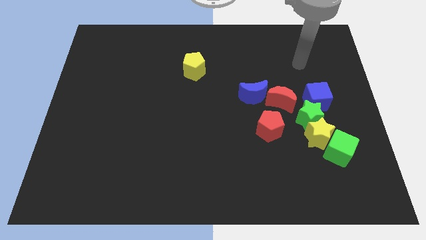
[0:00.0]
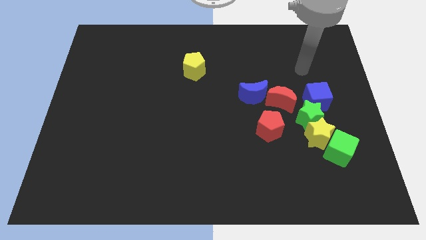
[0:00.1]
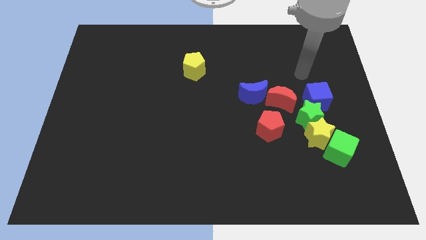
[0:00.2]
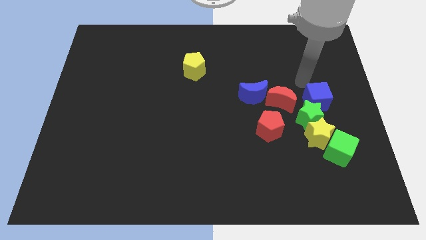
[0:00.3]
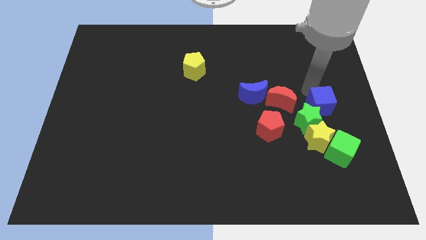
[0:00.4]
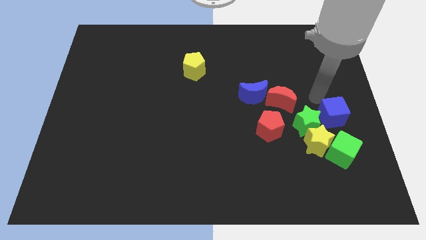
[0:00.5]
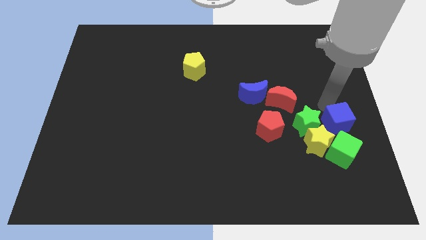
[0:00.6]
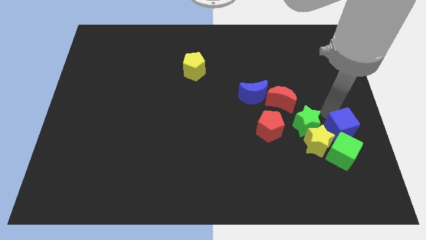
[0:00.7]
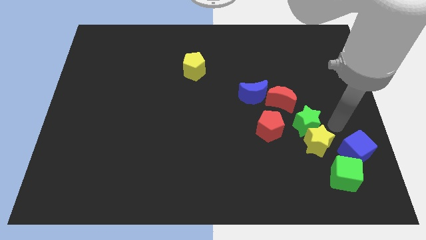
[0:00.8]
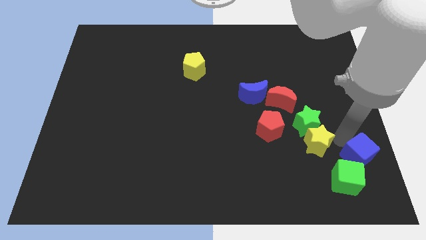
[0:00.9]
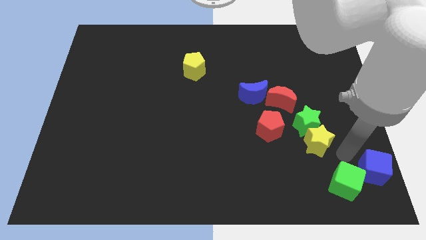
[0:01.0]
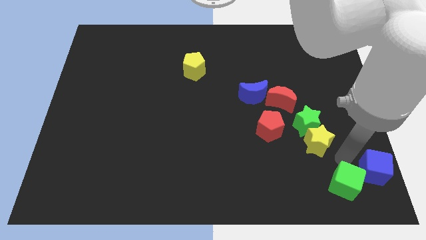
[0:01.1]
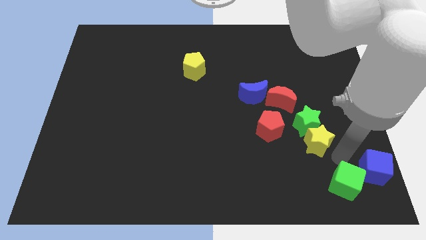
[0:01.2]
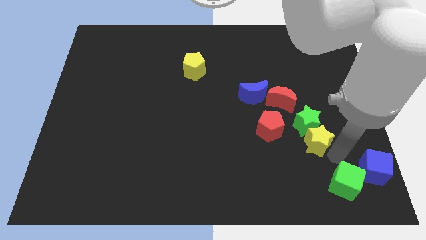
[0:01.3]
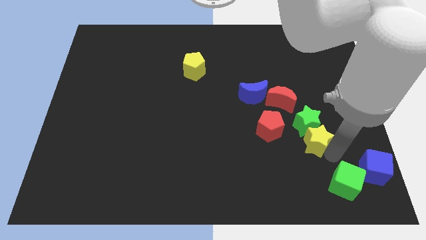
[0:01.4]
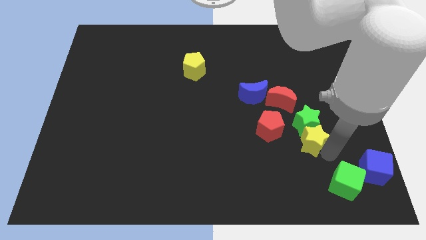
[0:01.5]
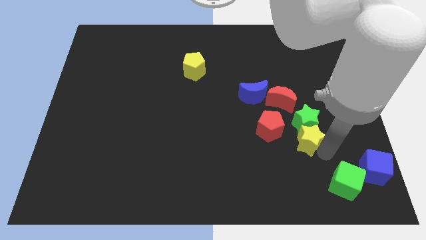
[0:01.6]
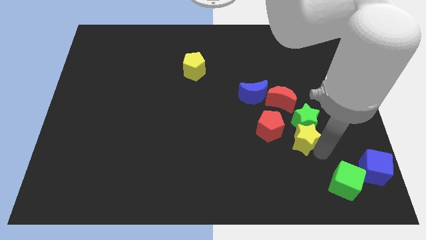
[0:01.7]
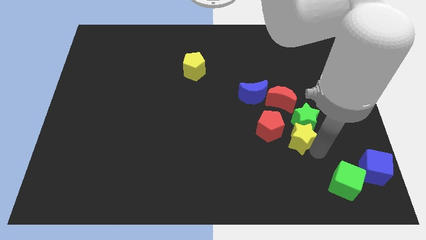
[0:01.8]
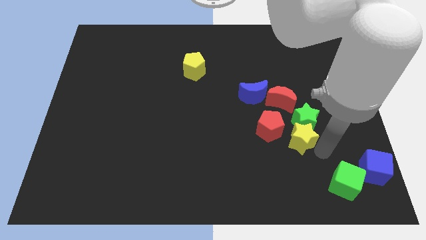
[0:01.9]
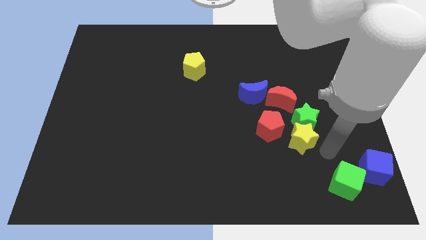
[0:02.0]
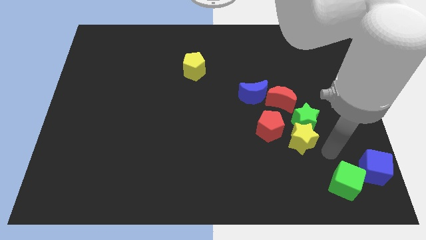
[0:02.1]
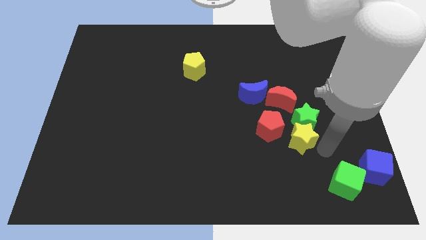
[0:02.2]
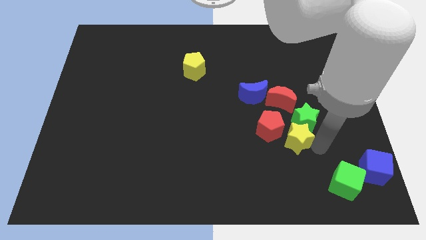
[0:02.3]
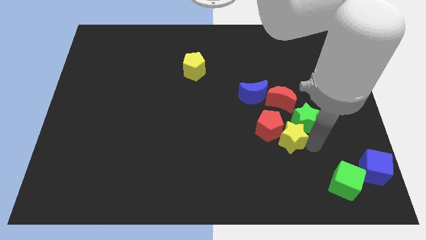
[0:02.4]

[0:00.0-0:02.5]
separate the yellow star from the green star, green cube, and blue cube

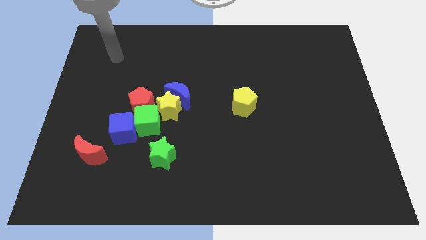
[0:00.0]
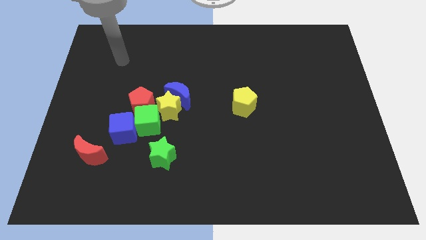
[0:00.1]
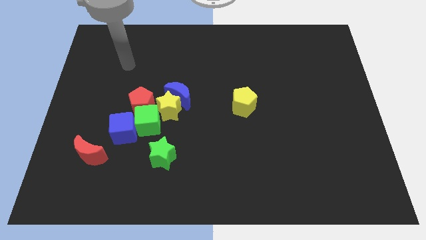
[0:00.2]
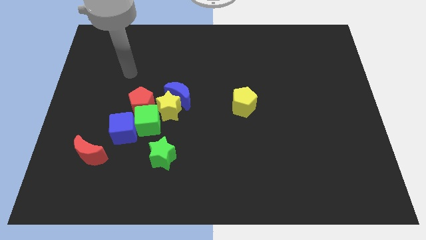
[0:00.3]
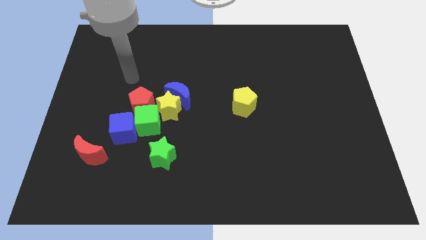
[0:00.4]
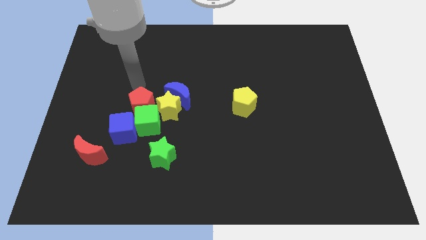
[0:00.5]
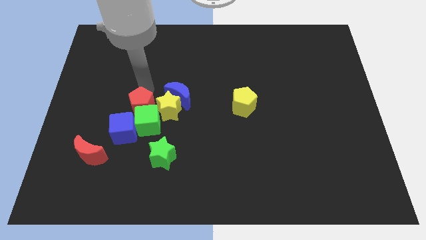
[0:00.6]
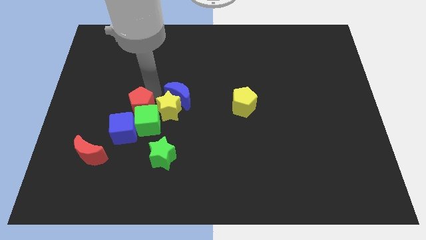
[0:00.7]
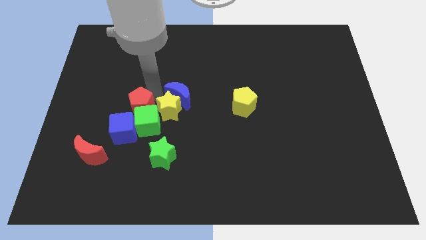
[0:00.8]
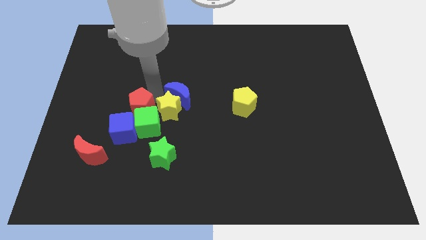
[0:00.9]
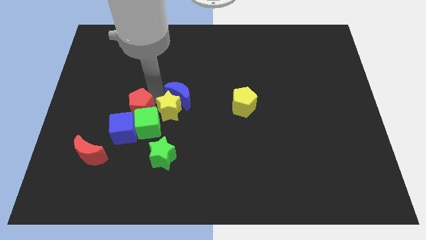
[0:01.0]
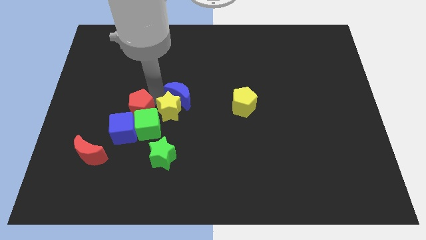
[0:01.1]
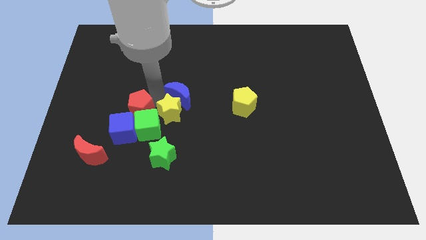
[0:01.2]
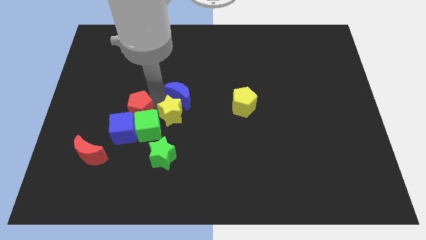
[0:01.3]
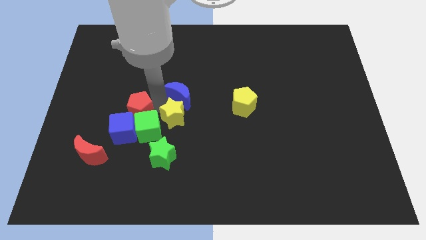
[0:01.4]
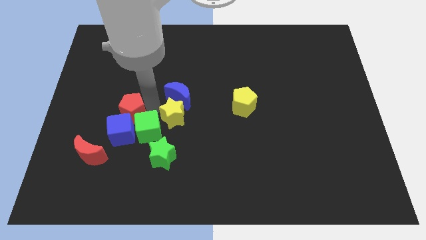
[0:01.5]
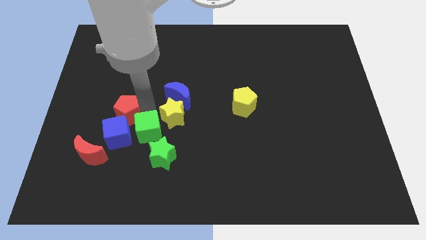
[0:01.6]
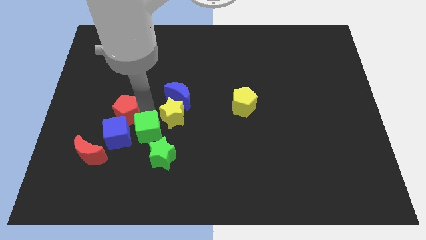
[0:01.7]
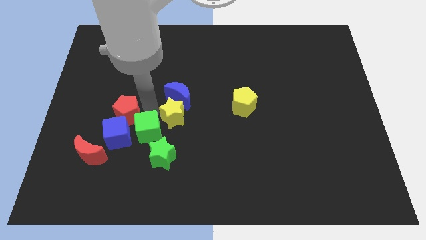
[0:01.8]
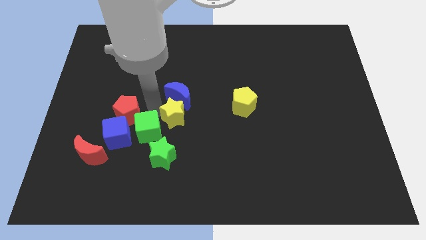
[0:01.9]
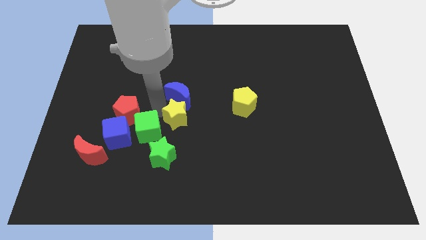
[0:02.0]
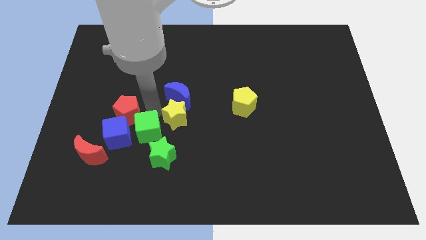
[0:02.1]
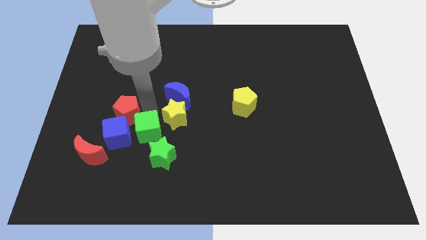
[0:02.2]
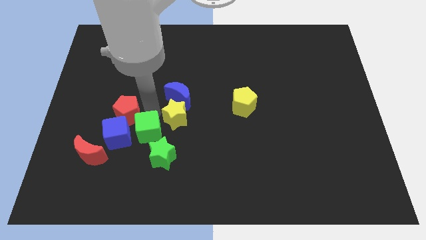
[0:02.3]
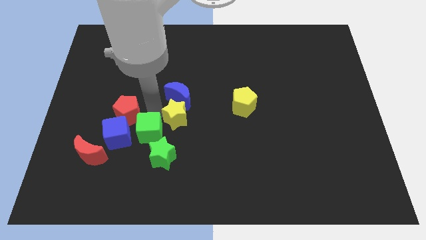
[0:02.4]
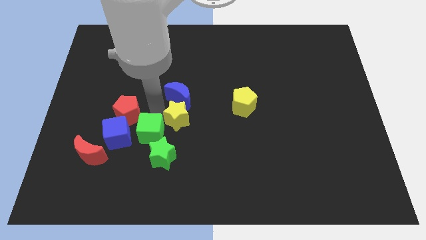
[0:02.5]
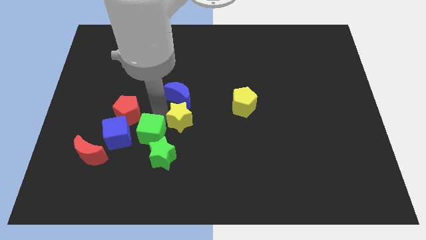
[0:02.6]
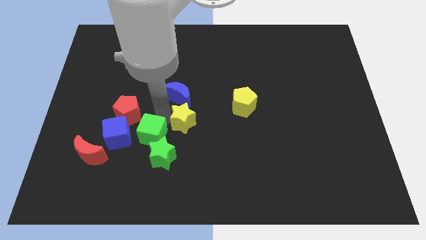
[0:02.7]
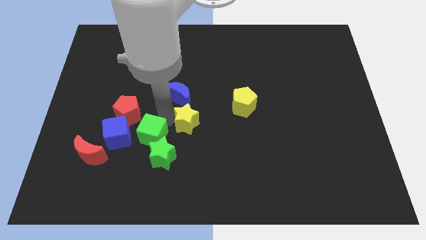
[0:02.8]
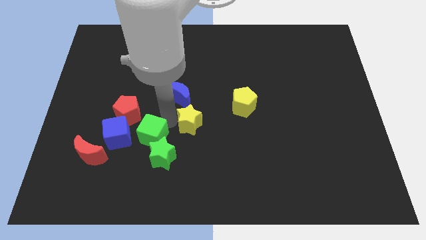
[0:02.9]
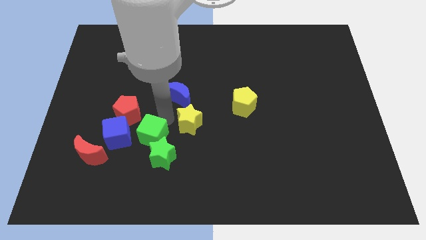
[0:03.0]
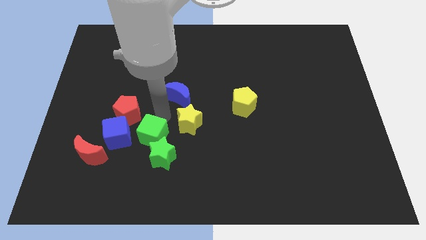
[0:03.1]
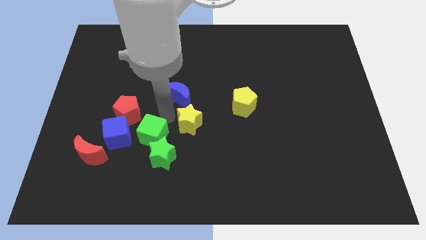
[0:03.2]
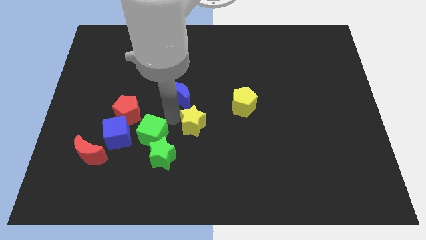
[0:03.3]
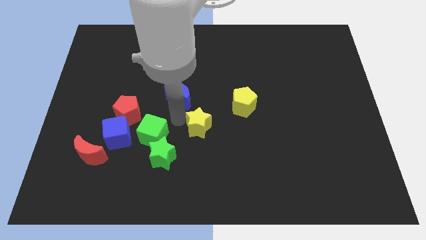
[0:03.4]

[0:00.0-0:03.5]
separate the yellow star from the clump

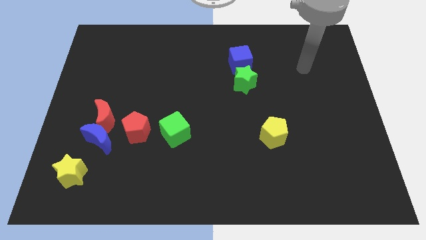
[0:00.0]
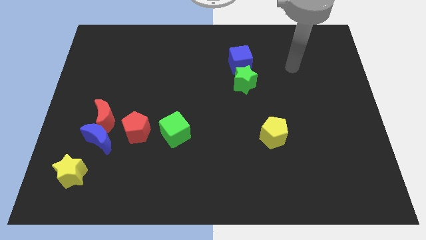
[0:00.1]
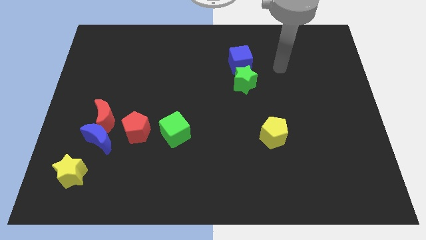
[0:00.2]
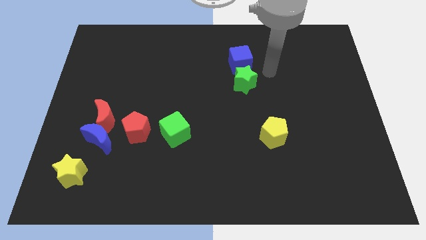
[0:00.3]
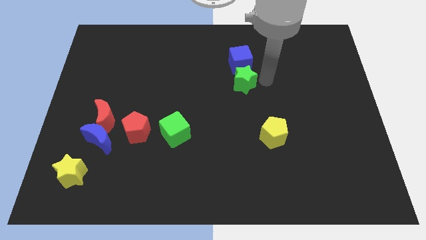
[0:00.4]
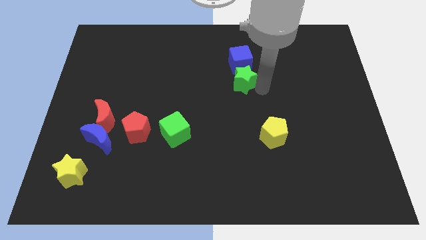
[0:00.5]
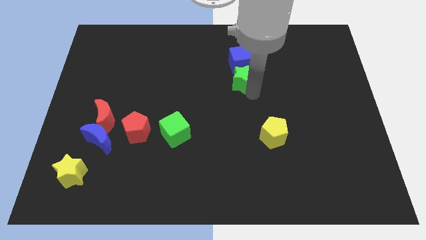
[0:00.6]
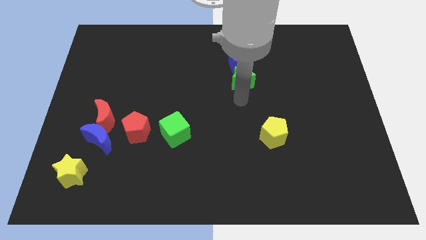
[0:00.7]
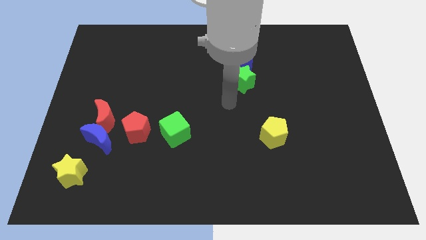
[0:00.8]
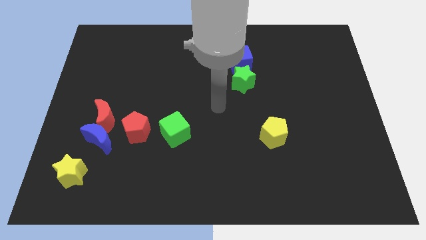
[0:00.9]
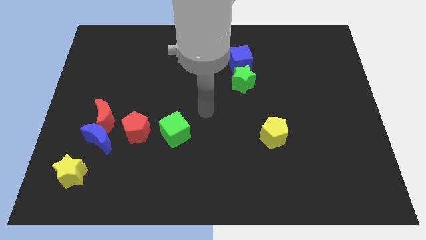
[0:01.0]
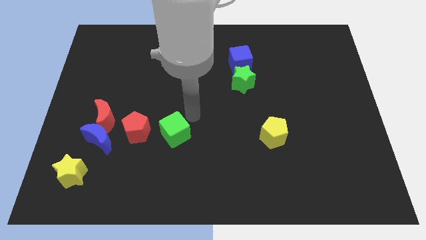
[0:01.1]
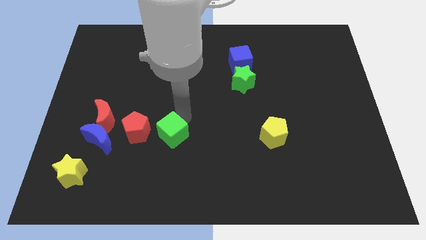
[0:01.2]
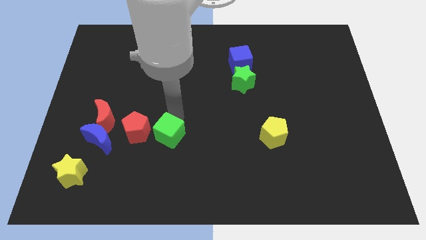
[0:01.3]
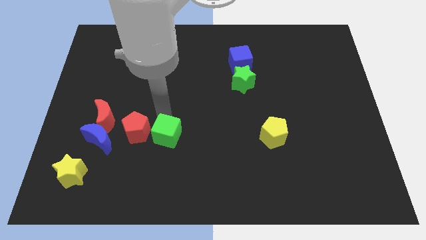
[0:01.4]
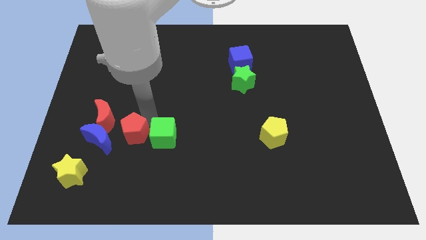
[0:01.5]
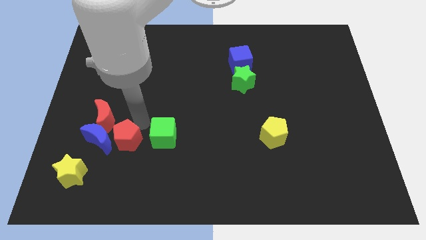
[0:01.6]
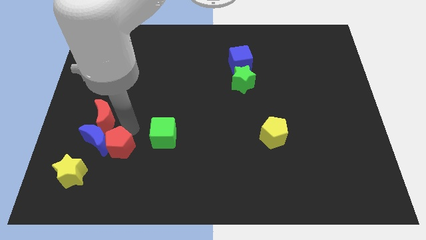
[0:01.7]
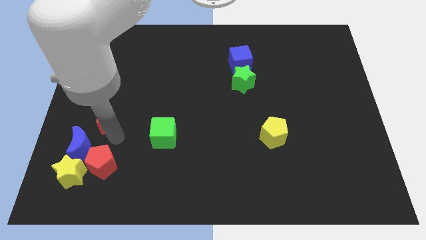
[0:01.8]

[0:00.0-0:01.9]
separate the red moon from the blue moon and red pentagon

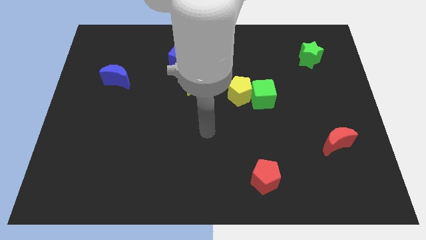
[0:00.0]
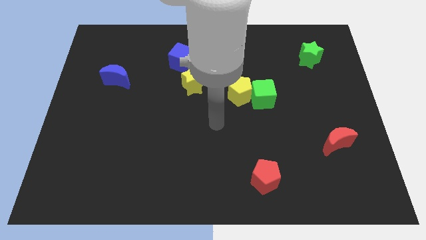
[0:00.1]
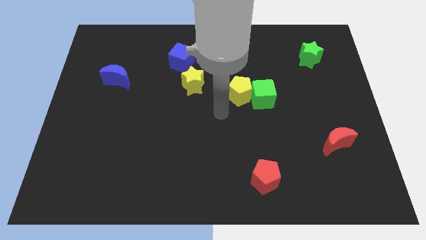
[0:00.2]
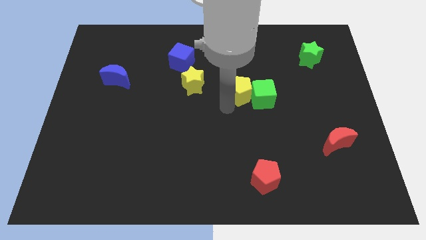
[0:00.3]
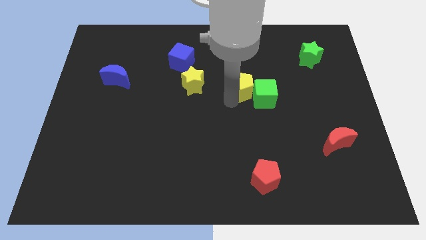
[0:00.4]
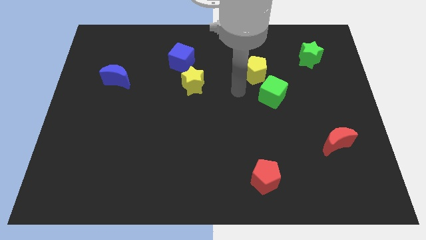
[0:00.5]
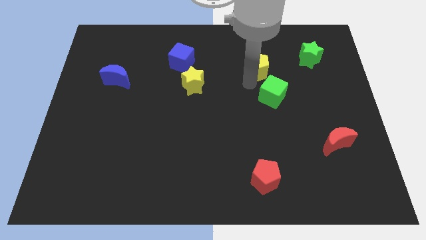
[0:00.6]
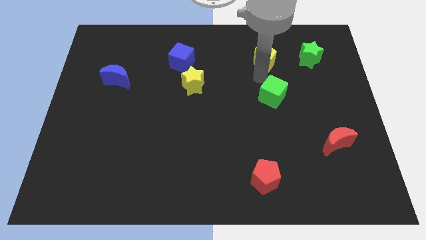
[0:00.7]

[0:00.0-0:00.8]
pull the green cube apart from the yellow pentagon

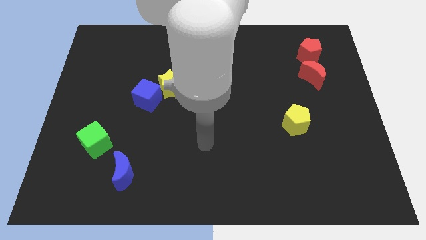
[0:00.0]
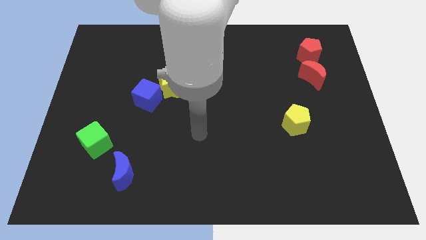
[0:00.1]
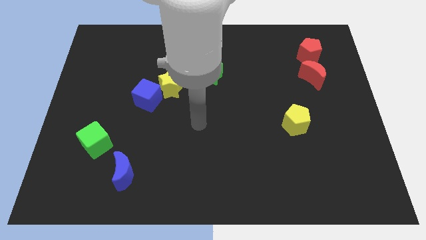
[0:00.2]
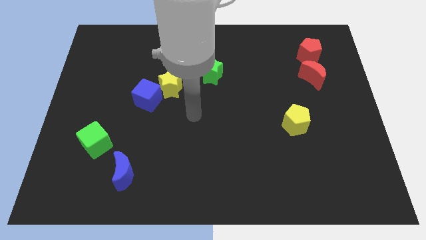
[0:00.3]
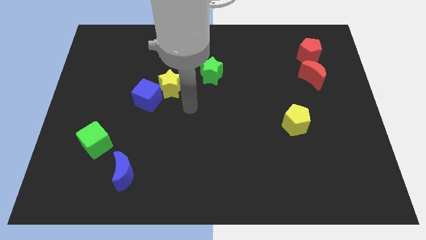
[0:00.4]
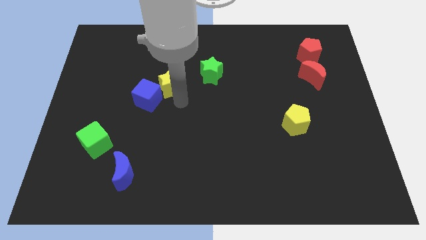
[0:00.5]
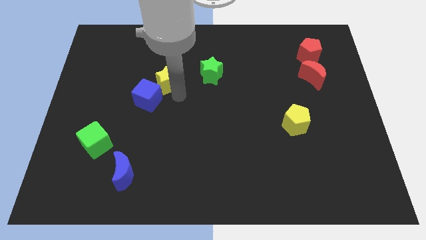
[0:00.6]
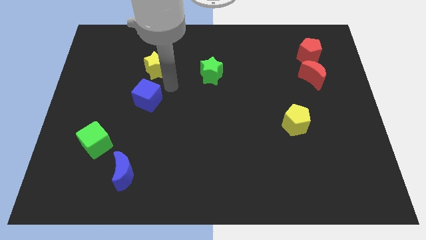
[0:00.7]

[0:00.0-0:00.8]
pull the blue cube apart from the yellow star
